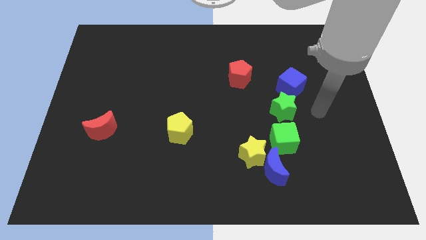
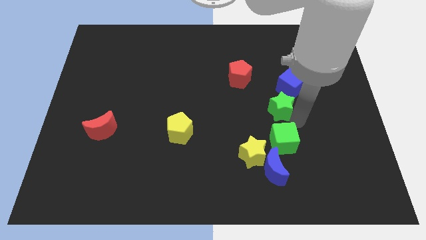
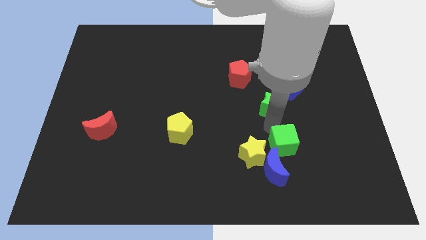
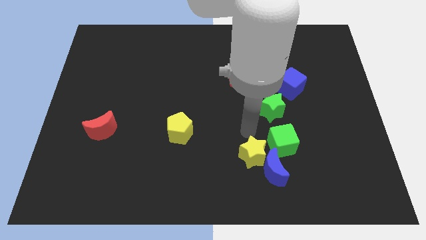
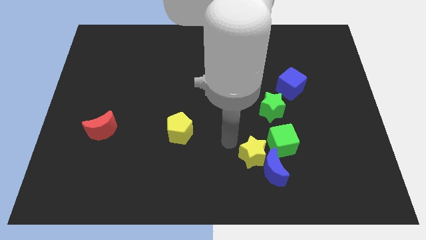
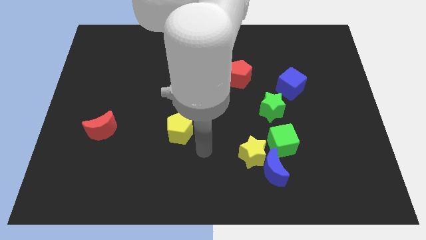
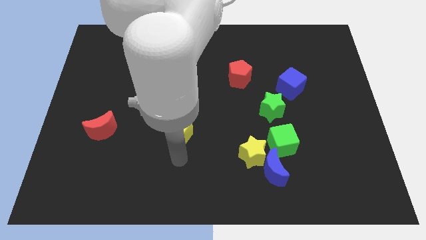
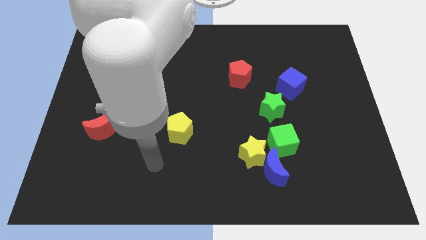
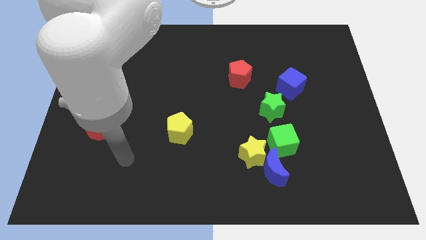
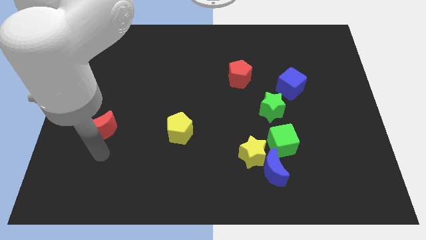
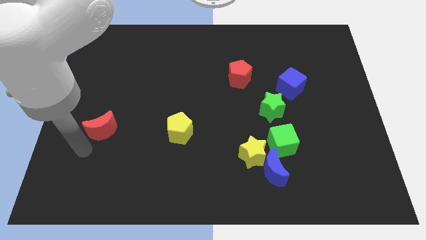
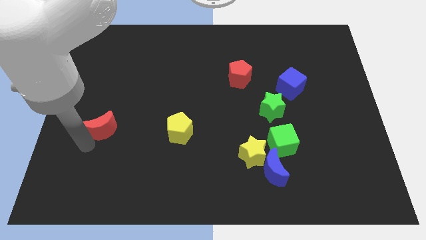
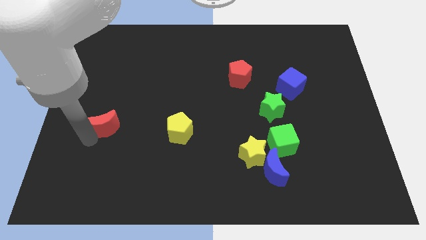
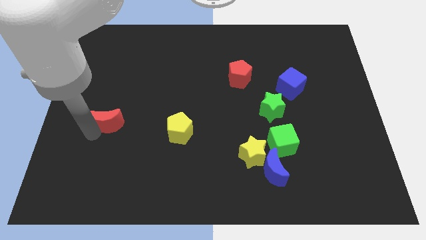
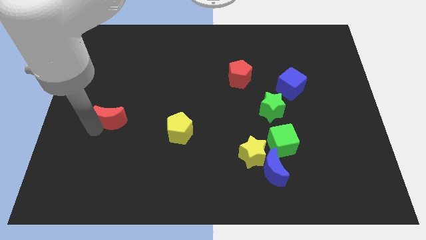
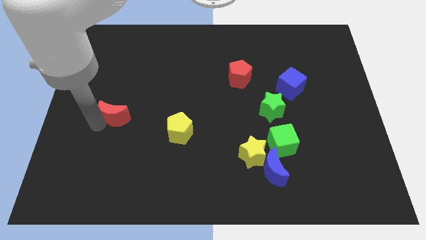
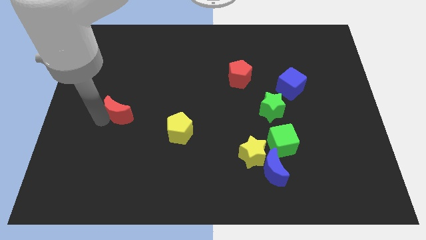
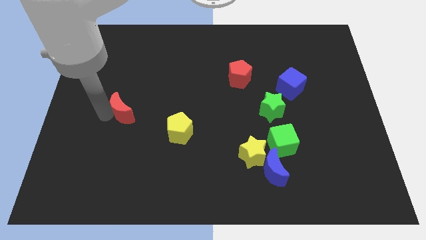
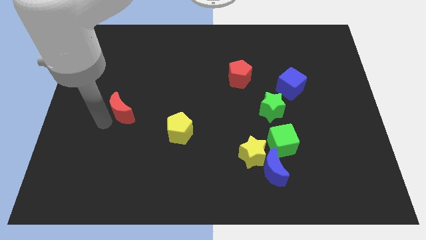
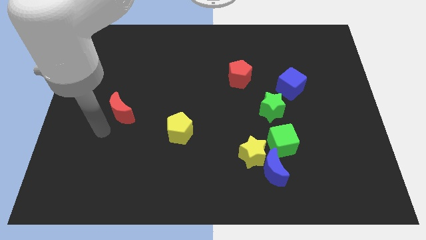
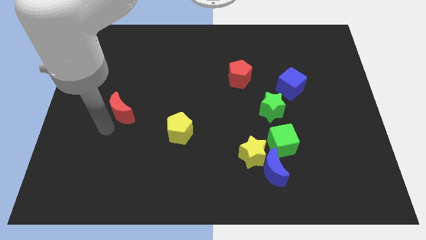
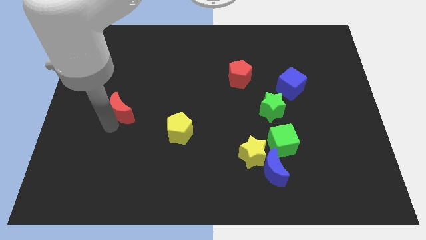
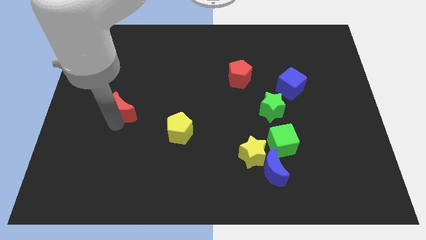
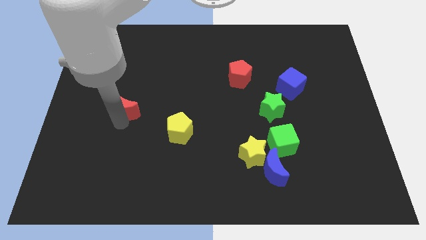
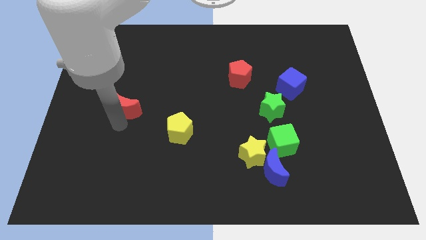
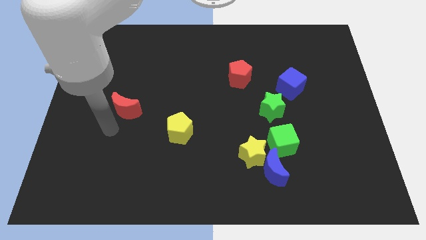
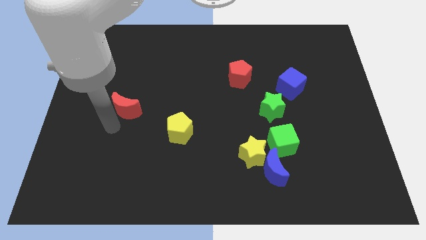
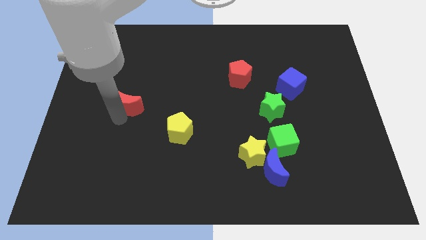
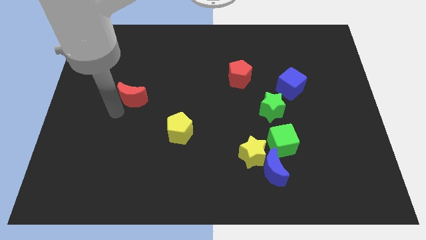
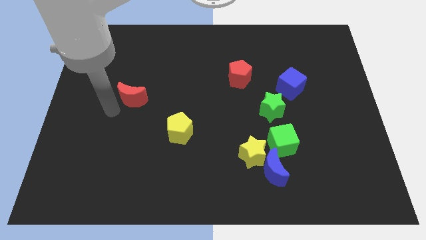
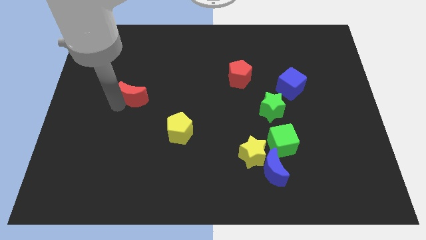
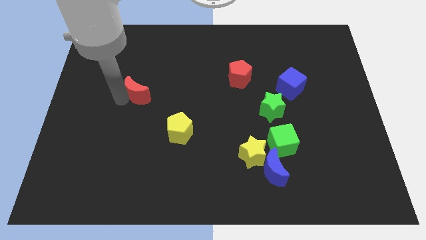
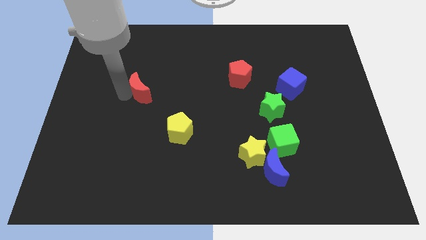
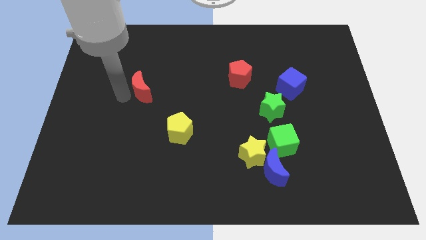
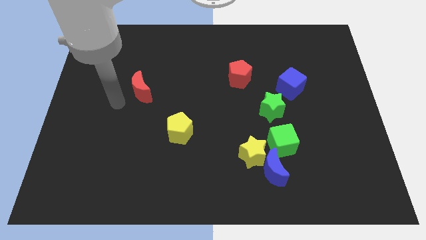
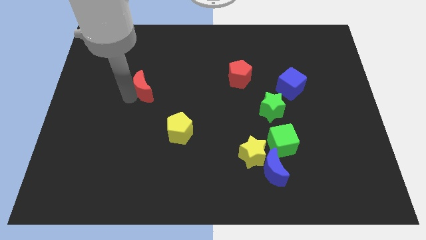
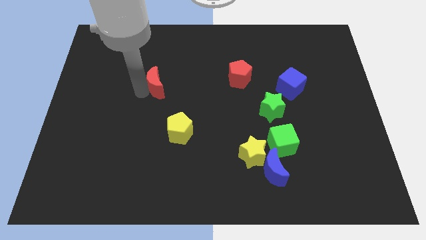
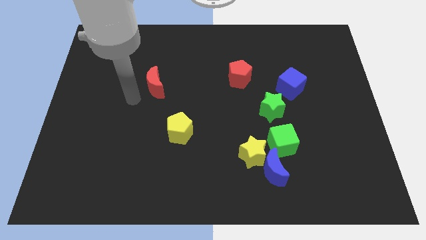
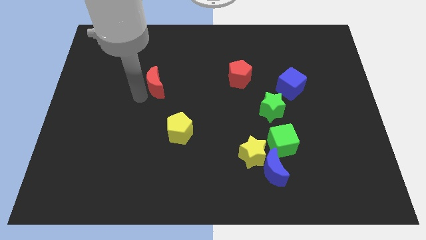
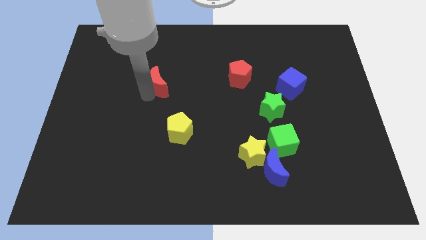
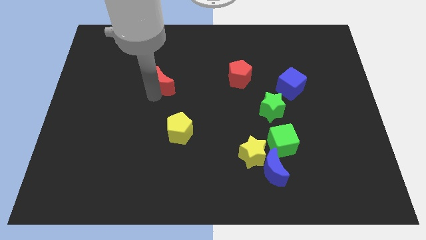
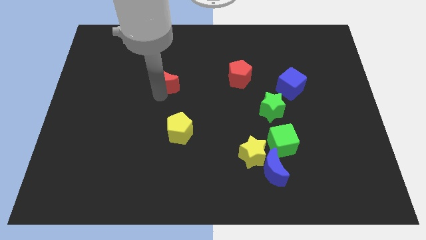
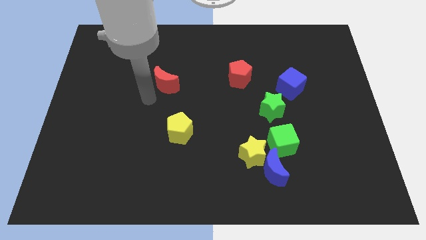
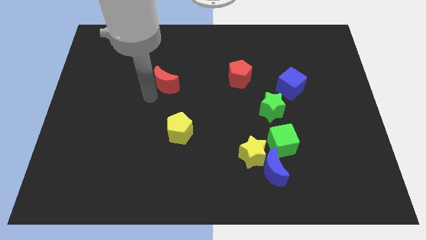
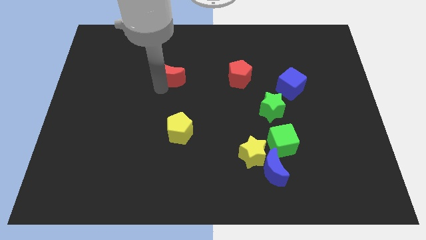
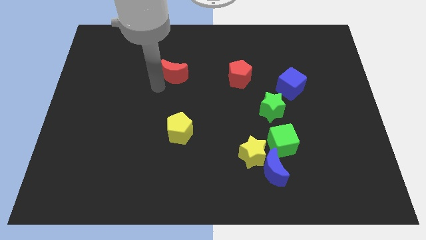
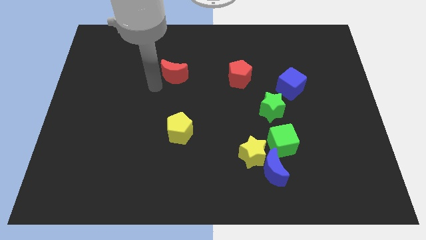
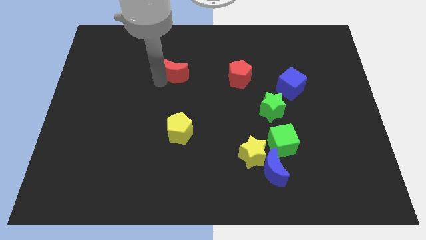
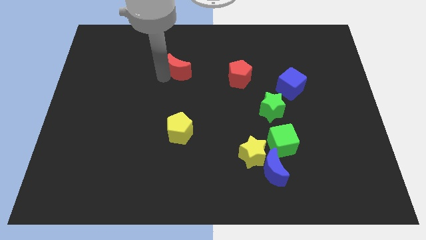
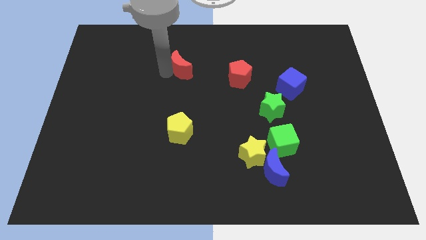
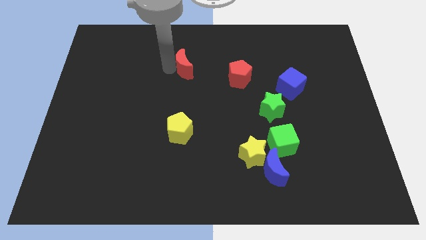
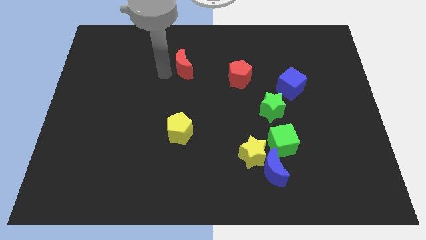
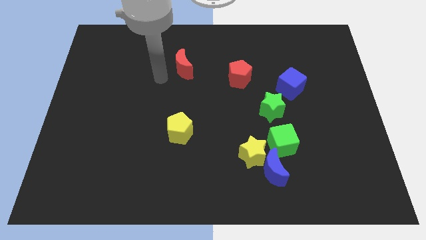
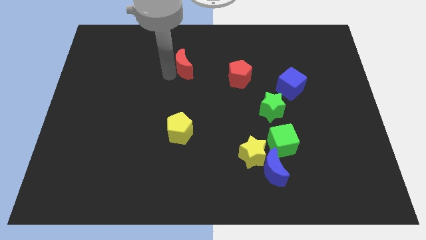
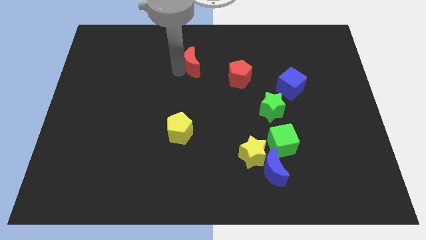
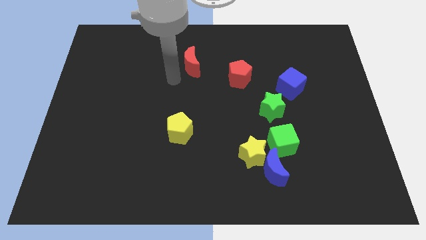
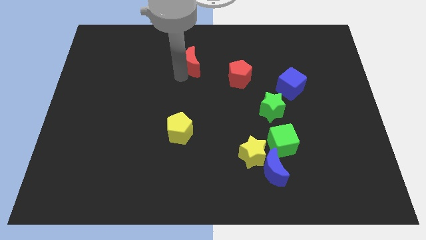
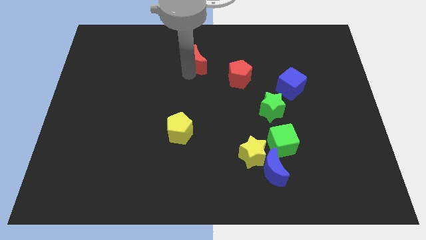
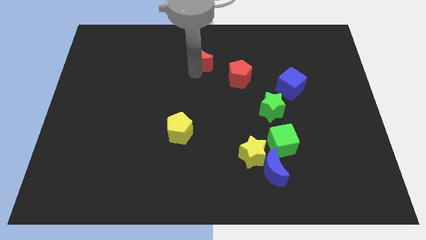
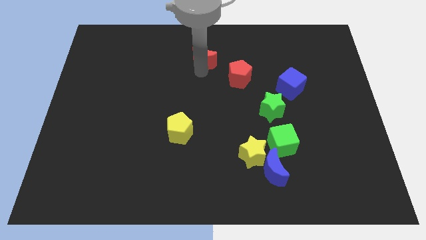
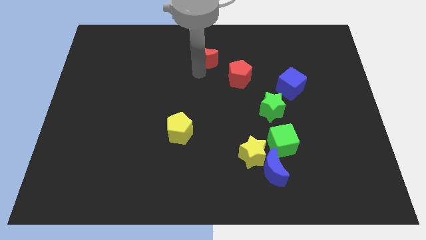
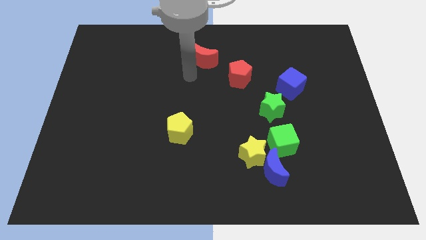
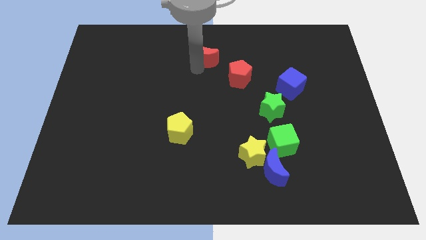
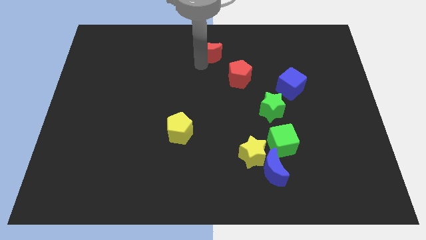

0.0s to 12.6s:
put the red moon to the towards your base
